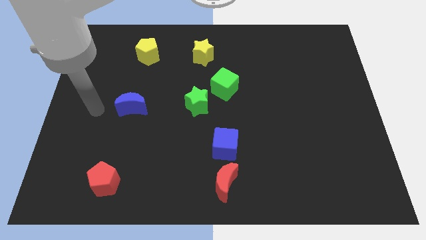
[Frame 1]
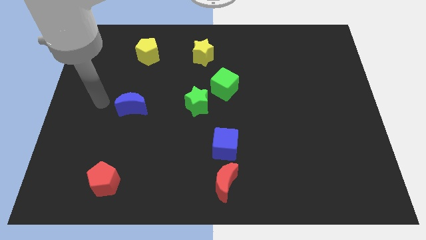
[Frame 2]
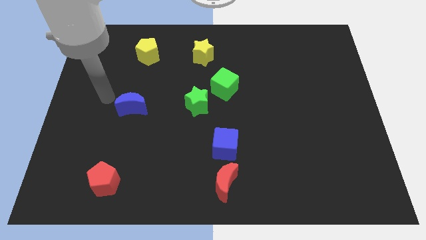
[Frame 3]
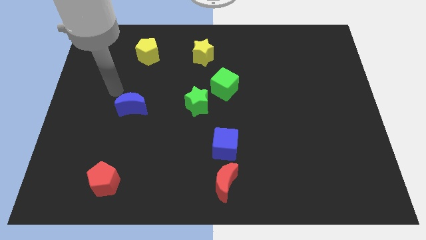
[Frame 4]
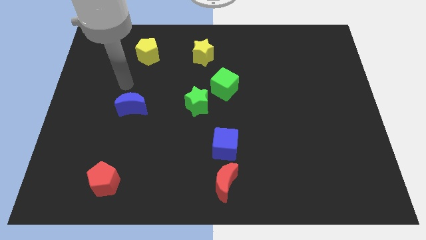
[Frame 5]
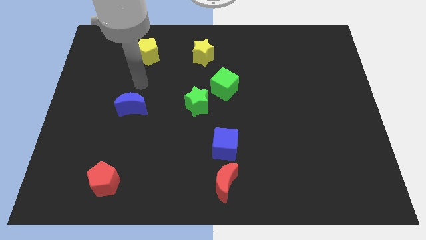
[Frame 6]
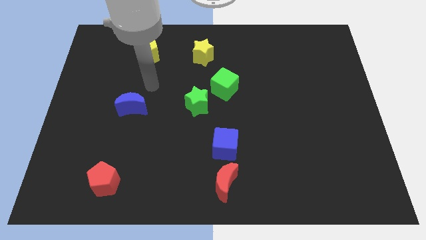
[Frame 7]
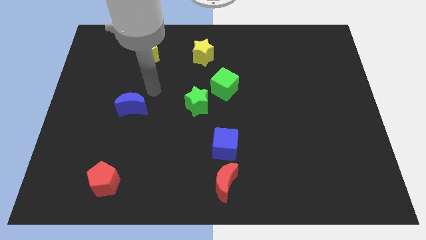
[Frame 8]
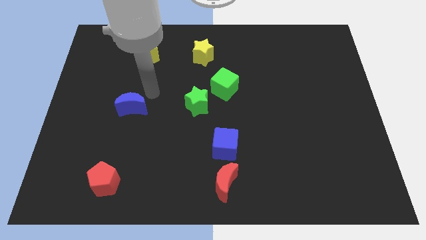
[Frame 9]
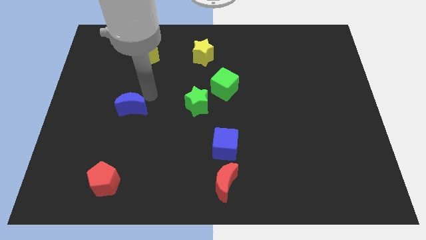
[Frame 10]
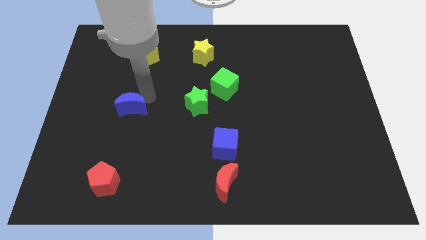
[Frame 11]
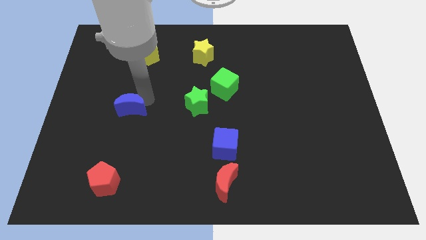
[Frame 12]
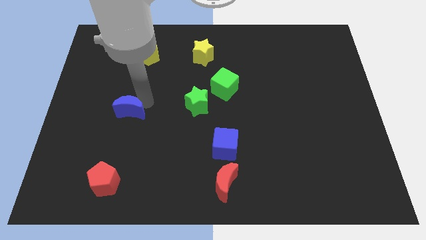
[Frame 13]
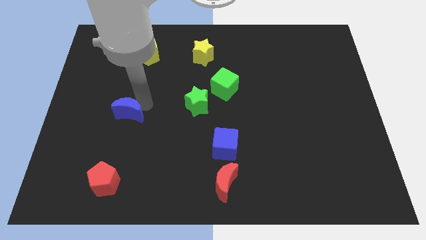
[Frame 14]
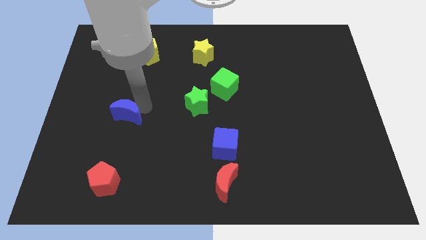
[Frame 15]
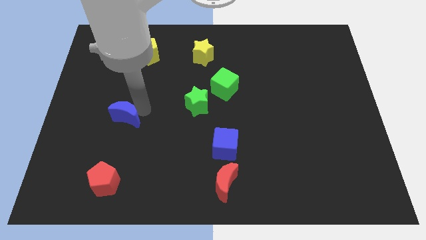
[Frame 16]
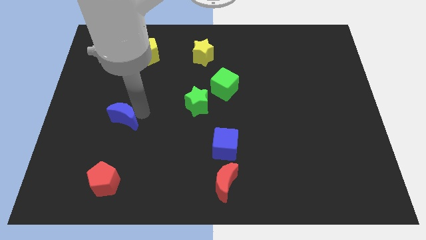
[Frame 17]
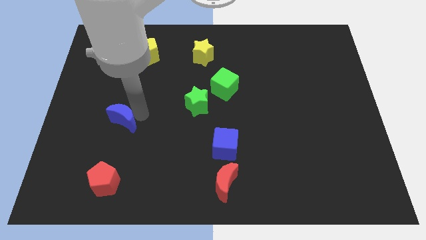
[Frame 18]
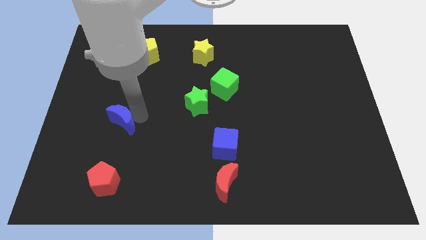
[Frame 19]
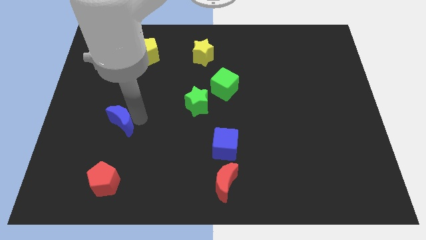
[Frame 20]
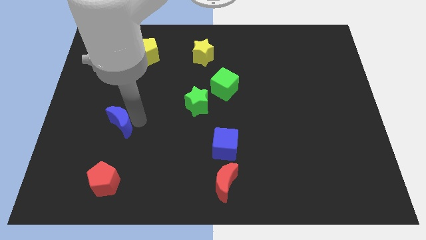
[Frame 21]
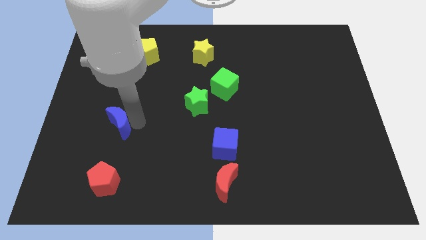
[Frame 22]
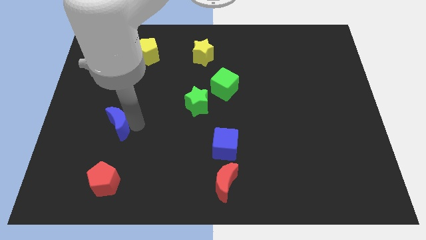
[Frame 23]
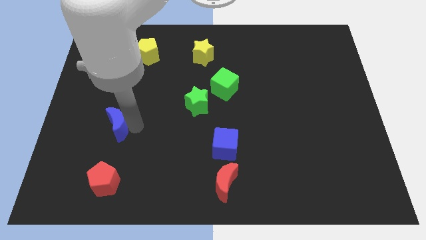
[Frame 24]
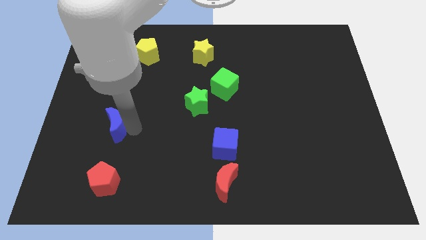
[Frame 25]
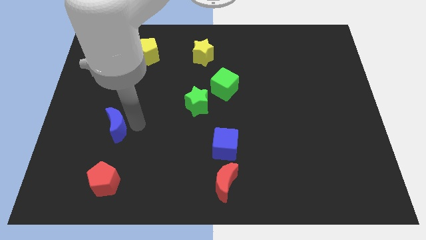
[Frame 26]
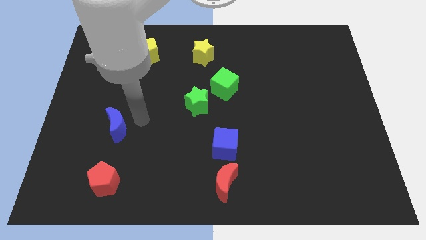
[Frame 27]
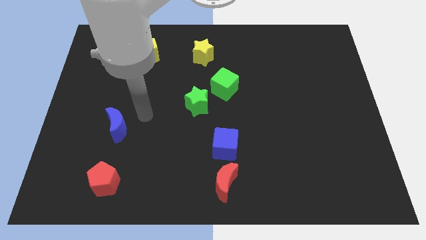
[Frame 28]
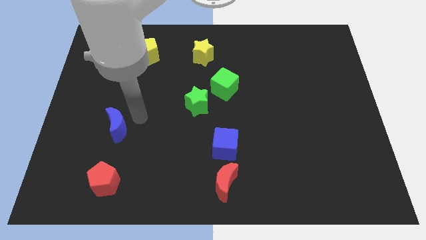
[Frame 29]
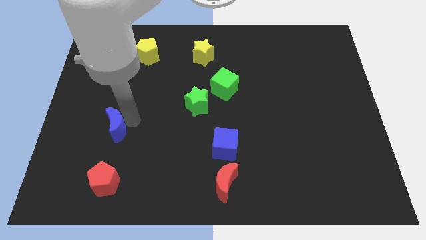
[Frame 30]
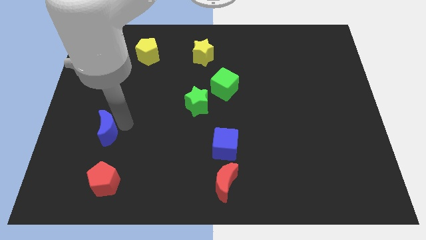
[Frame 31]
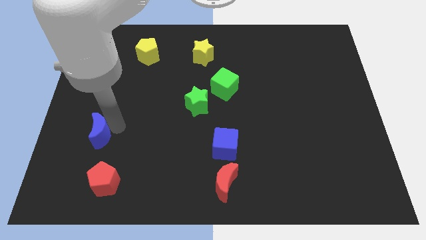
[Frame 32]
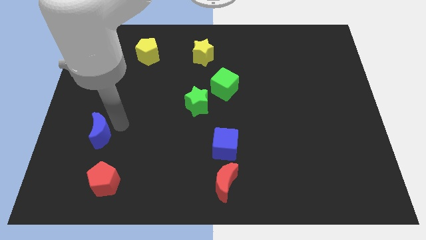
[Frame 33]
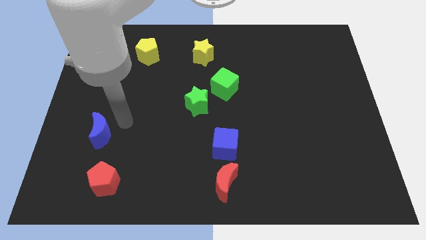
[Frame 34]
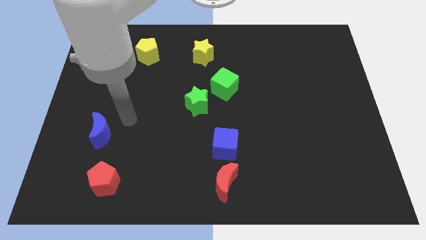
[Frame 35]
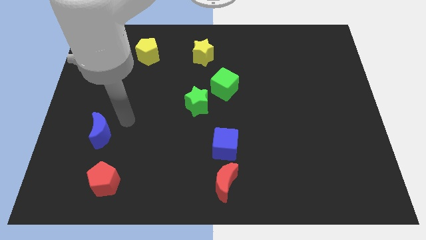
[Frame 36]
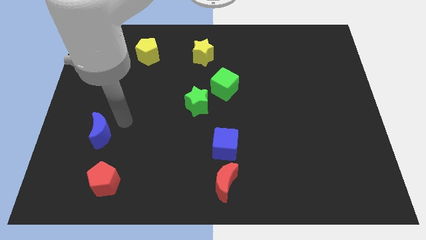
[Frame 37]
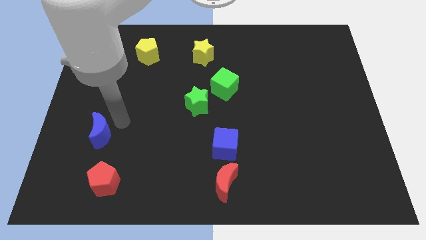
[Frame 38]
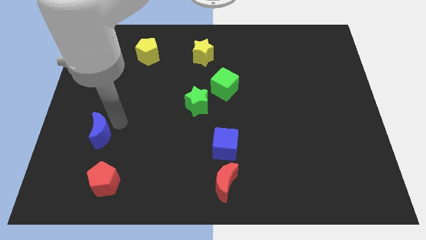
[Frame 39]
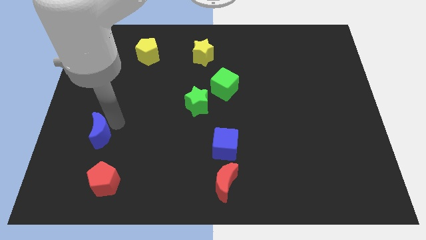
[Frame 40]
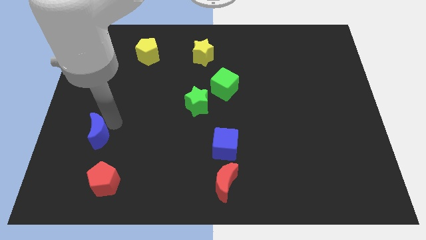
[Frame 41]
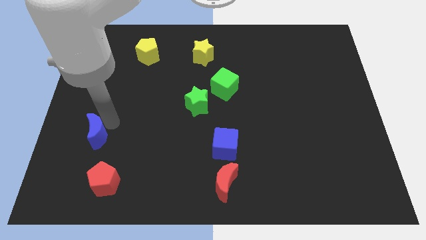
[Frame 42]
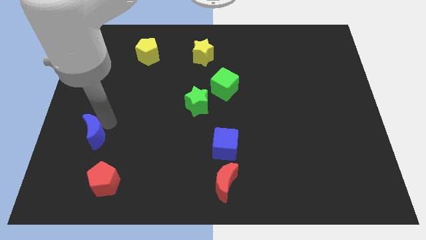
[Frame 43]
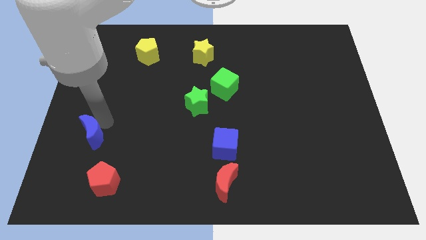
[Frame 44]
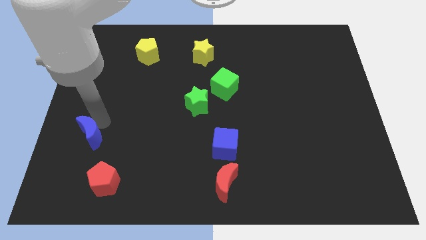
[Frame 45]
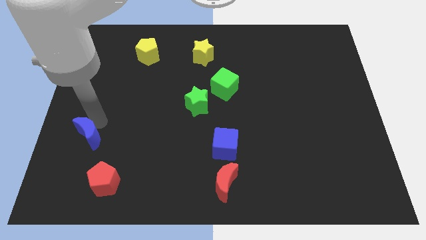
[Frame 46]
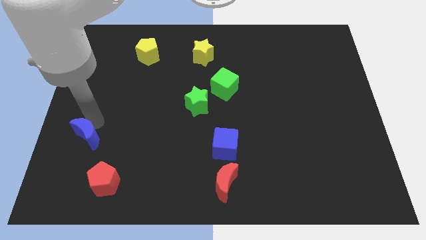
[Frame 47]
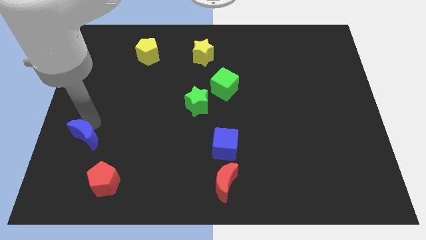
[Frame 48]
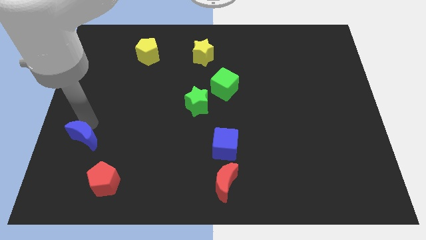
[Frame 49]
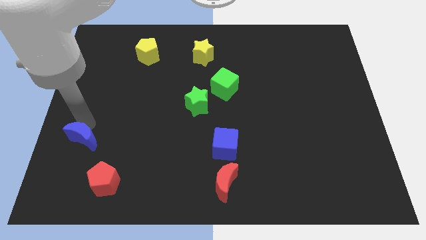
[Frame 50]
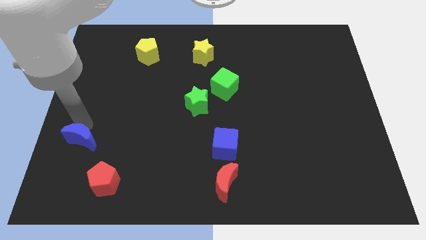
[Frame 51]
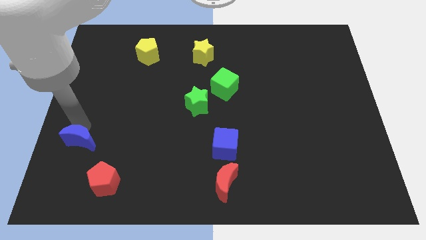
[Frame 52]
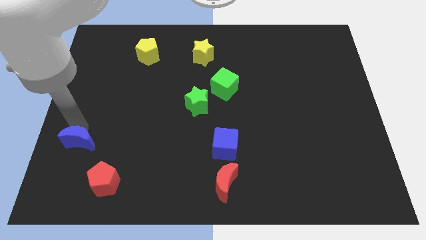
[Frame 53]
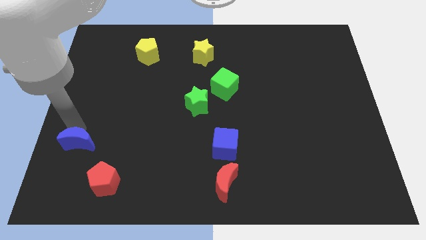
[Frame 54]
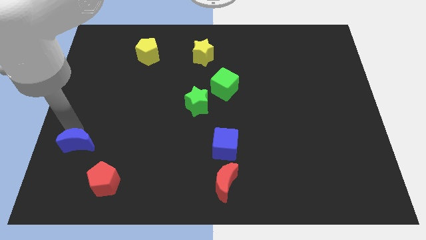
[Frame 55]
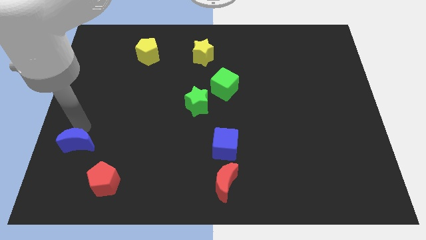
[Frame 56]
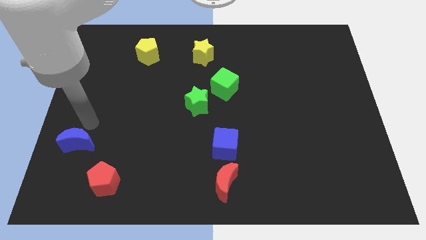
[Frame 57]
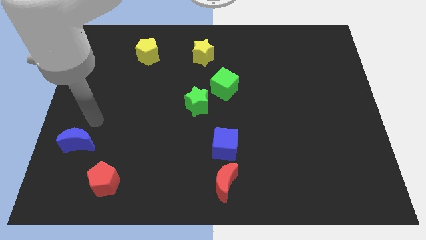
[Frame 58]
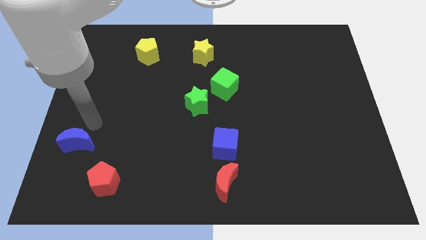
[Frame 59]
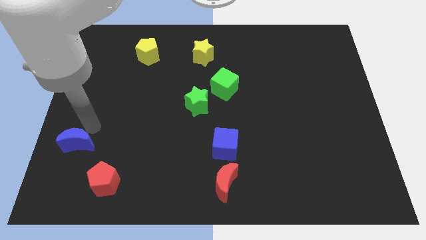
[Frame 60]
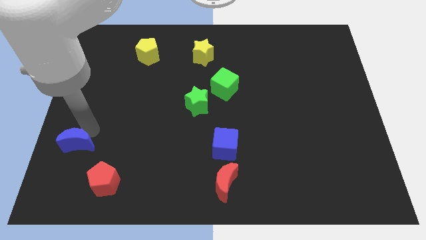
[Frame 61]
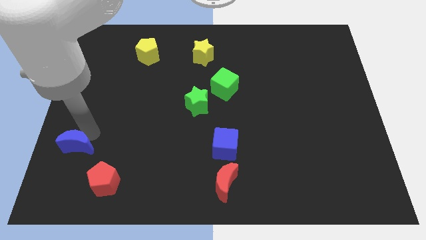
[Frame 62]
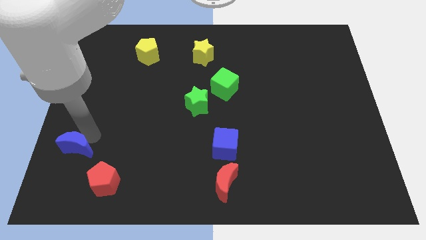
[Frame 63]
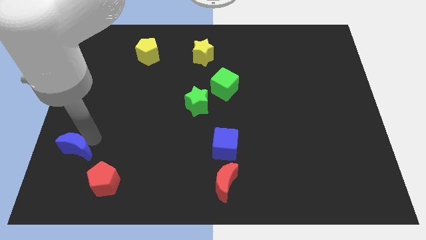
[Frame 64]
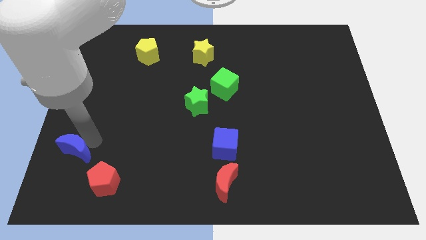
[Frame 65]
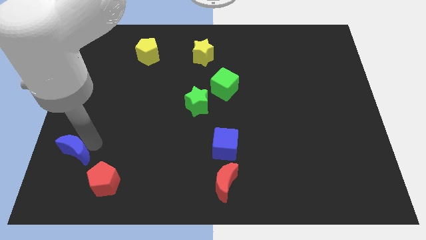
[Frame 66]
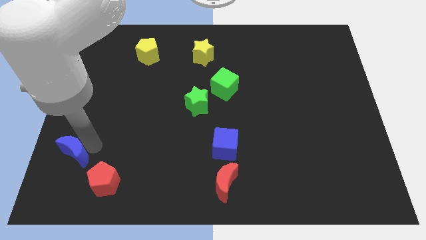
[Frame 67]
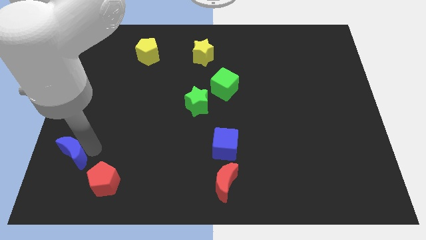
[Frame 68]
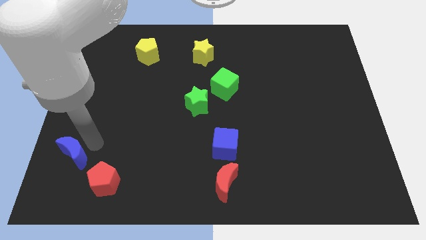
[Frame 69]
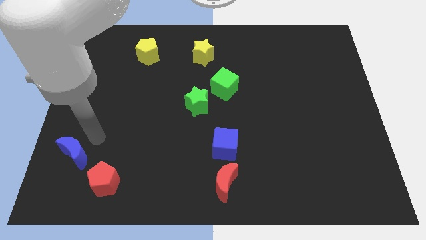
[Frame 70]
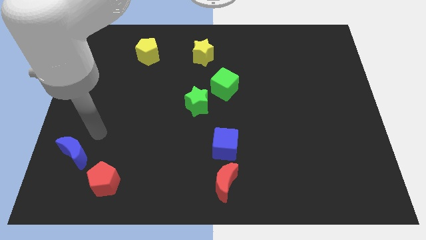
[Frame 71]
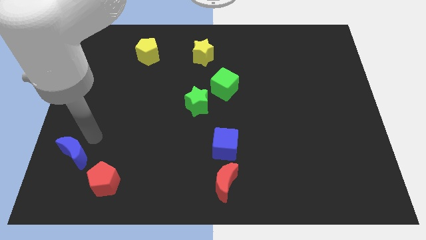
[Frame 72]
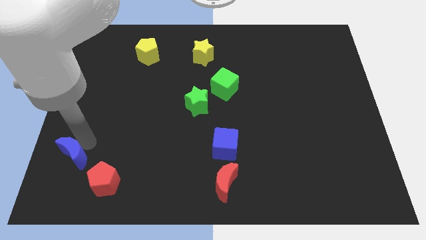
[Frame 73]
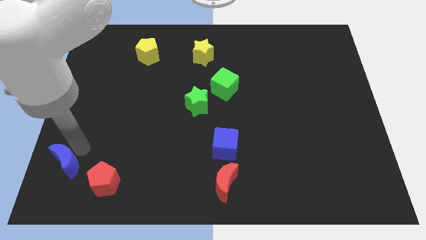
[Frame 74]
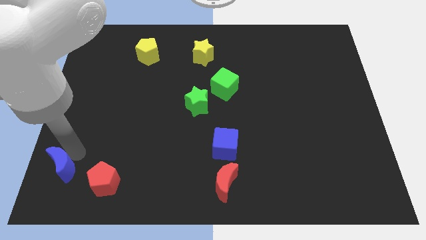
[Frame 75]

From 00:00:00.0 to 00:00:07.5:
slide the blue moon to the lower left corner

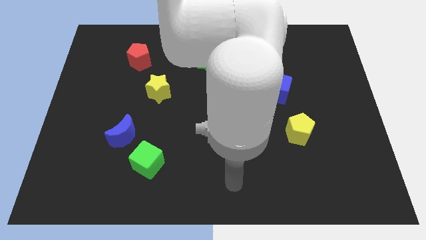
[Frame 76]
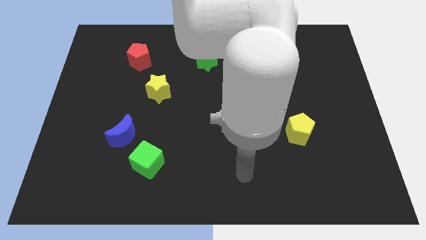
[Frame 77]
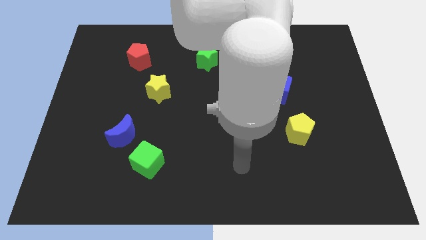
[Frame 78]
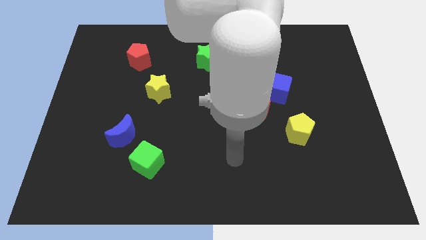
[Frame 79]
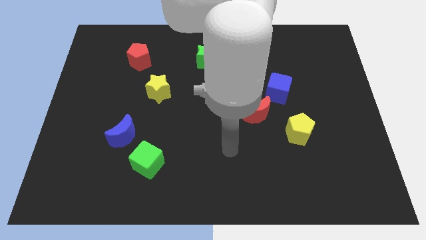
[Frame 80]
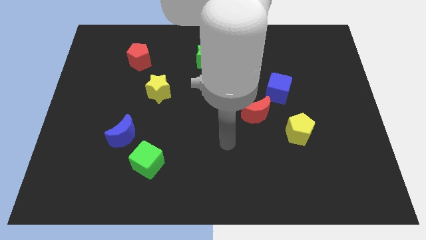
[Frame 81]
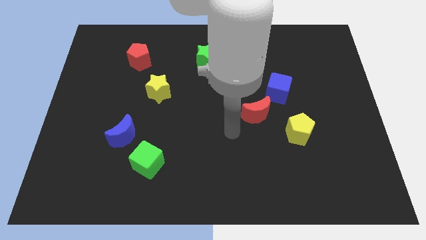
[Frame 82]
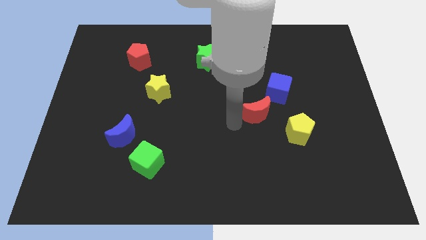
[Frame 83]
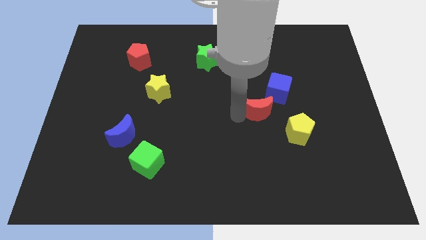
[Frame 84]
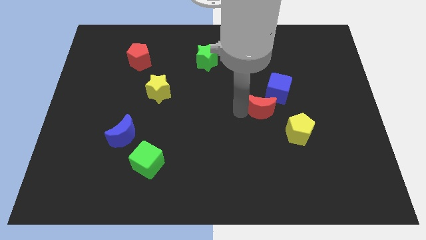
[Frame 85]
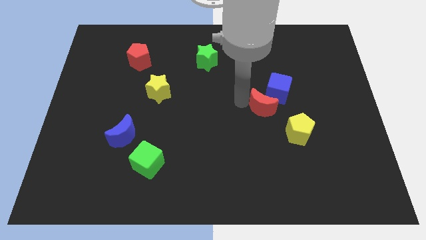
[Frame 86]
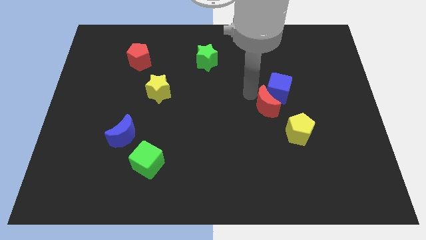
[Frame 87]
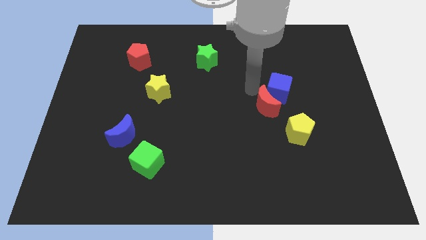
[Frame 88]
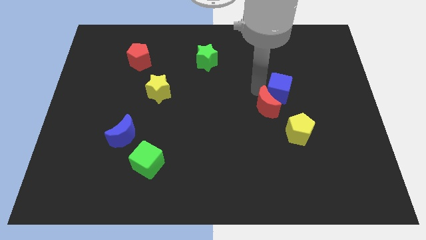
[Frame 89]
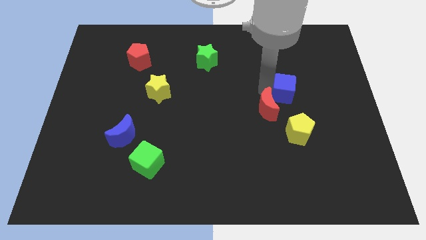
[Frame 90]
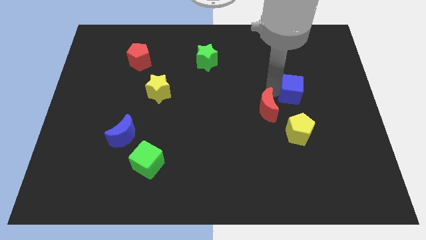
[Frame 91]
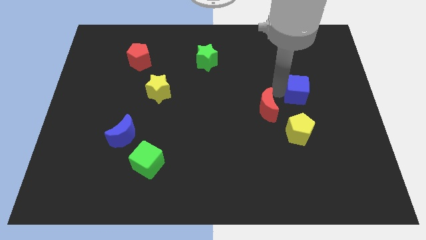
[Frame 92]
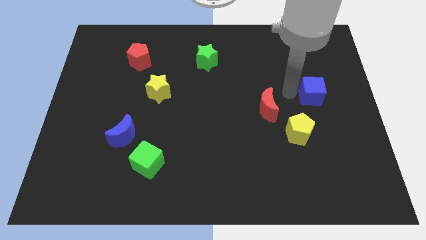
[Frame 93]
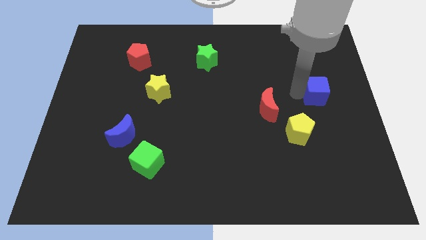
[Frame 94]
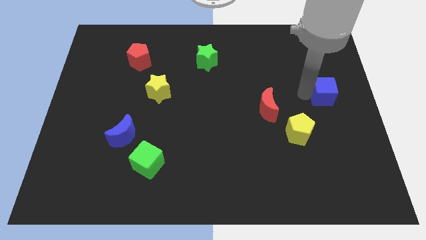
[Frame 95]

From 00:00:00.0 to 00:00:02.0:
put the blue cube to the right side
